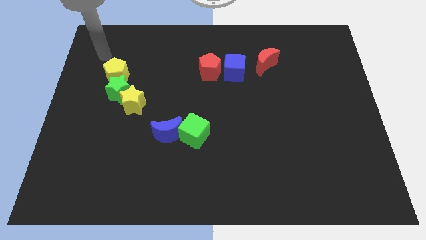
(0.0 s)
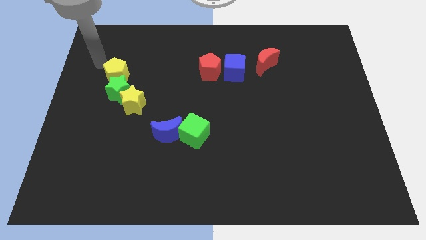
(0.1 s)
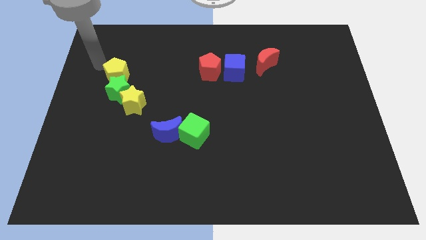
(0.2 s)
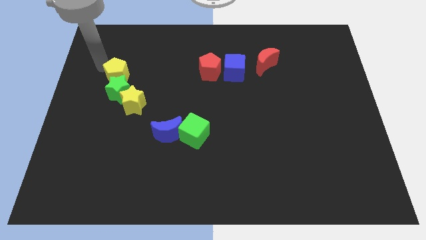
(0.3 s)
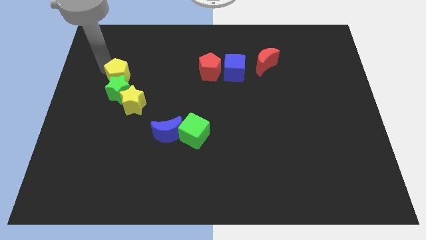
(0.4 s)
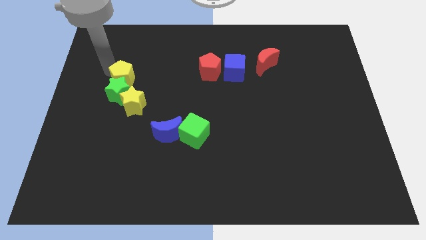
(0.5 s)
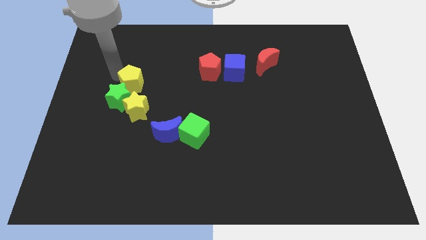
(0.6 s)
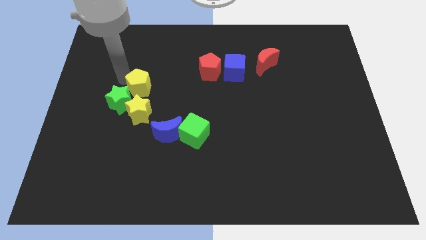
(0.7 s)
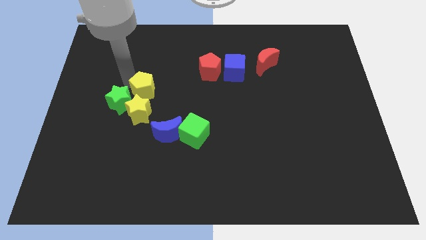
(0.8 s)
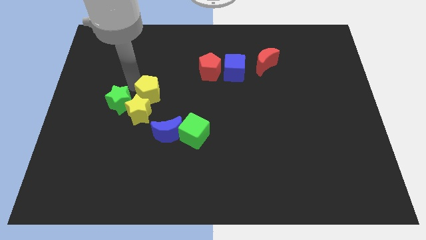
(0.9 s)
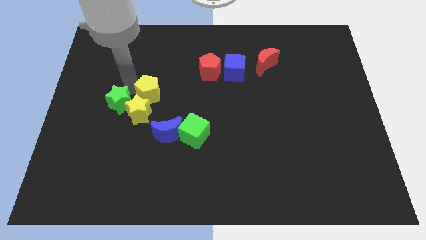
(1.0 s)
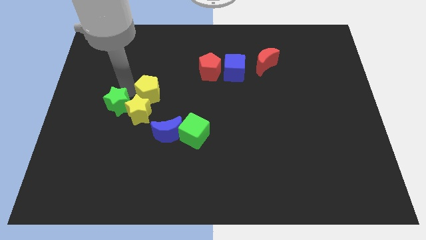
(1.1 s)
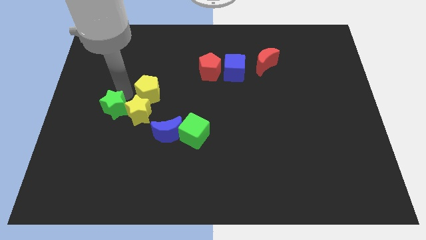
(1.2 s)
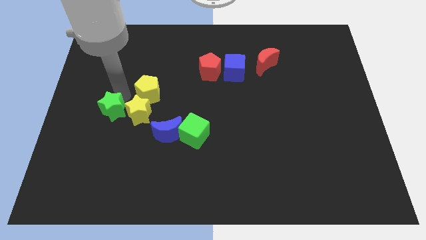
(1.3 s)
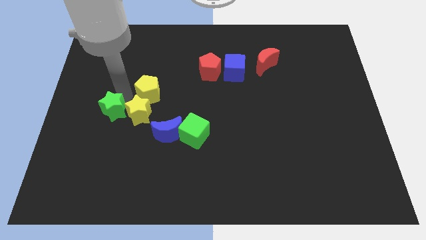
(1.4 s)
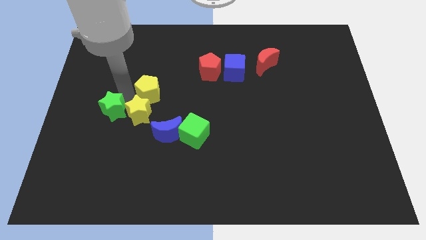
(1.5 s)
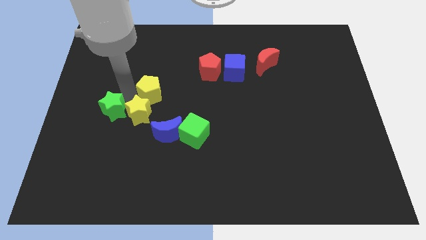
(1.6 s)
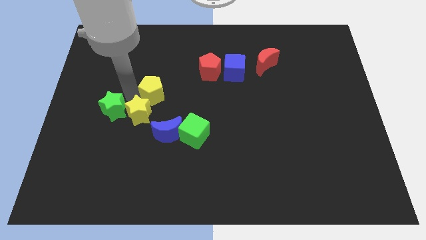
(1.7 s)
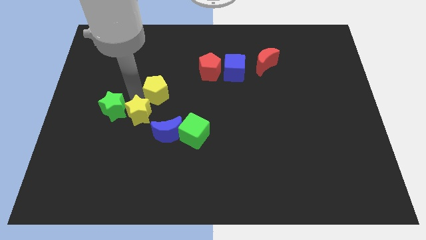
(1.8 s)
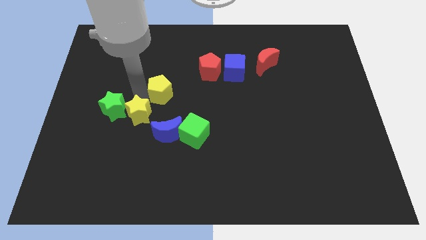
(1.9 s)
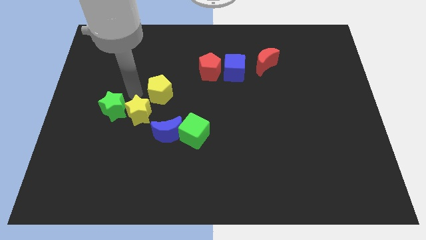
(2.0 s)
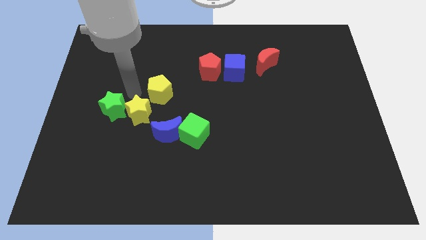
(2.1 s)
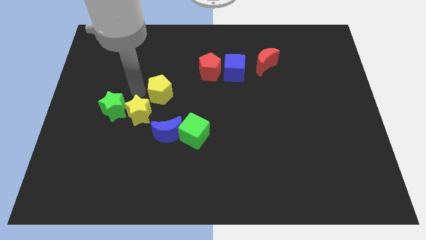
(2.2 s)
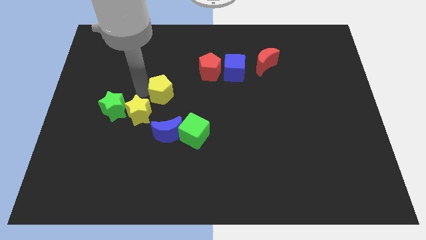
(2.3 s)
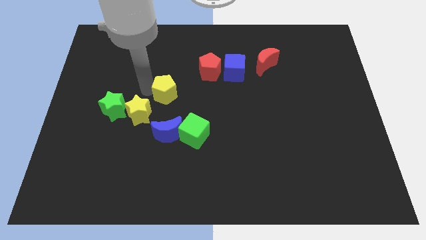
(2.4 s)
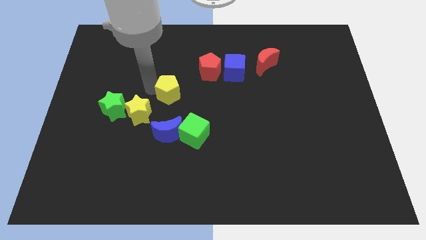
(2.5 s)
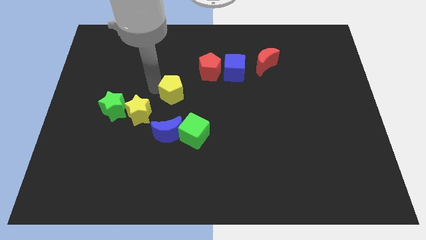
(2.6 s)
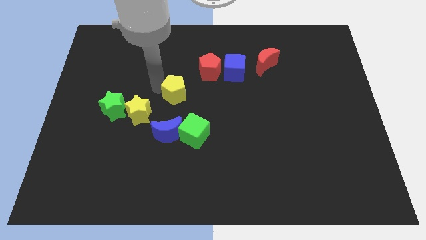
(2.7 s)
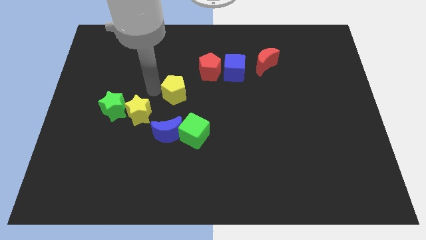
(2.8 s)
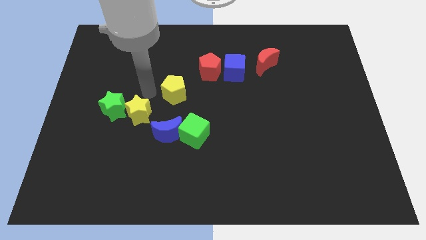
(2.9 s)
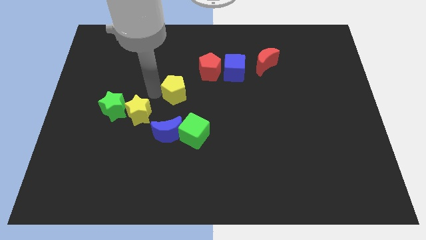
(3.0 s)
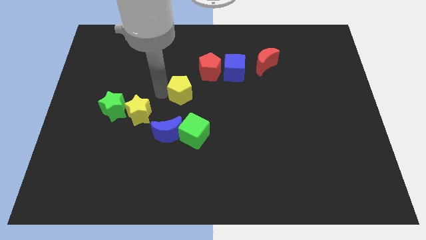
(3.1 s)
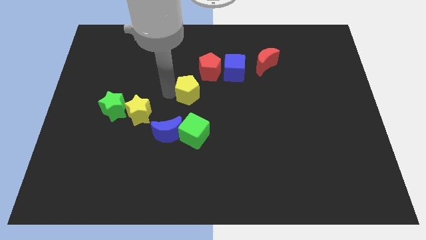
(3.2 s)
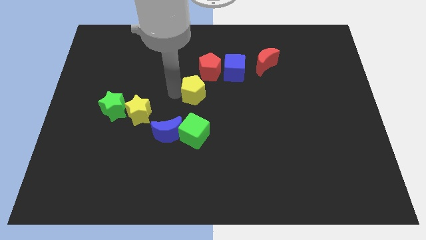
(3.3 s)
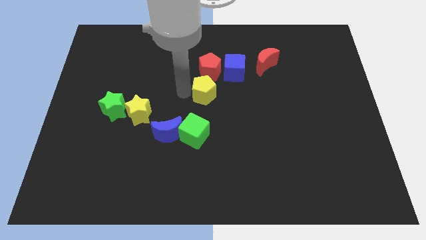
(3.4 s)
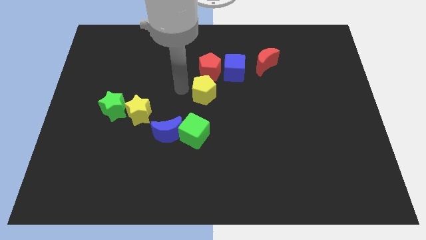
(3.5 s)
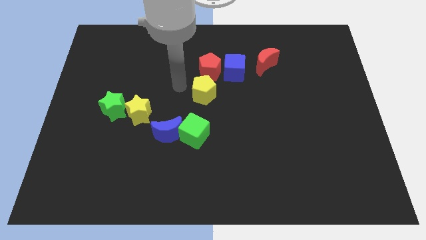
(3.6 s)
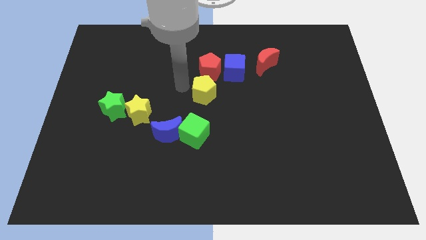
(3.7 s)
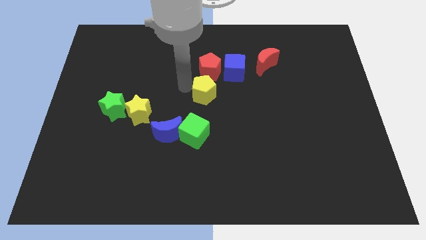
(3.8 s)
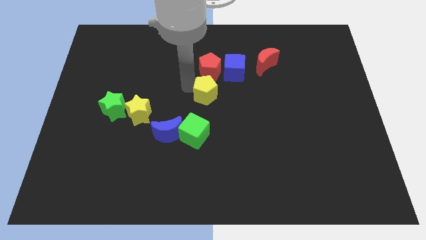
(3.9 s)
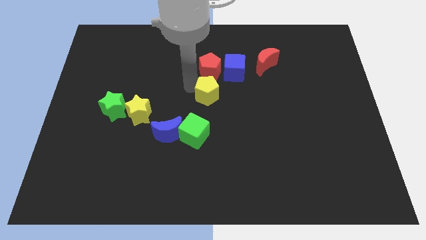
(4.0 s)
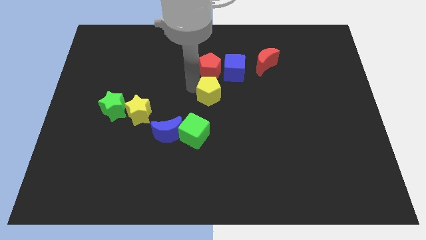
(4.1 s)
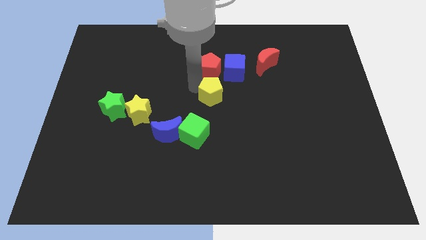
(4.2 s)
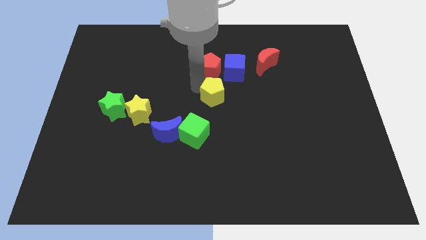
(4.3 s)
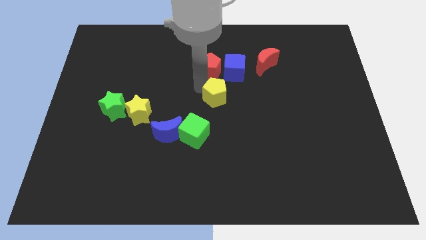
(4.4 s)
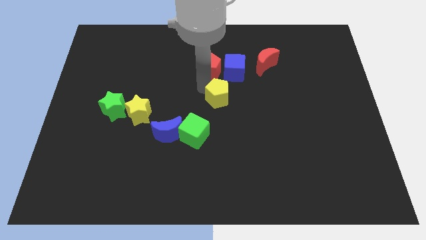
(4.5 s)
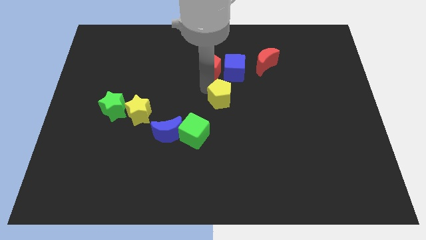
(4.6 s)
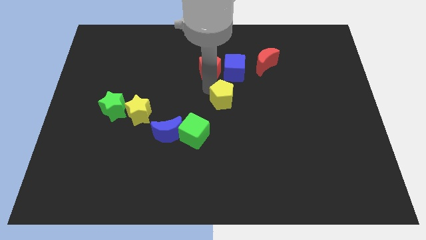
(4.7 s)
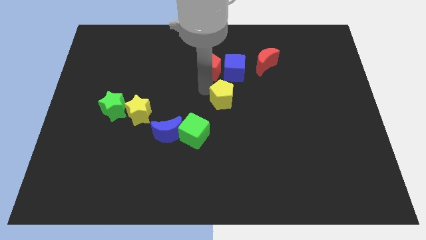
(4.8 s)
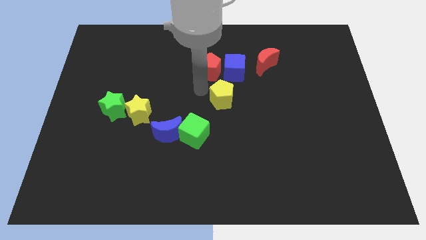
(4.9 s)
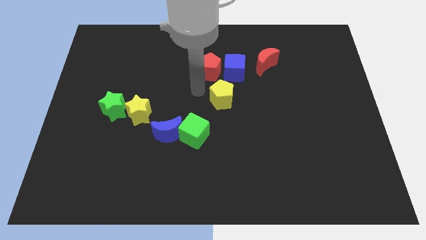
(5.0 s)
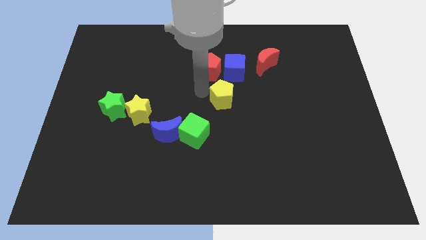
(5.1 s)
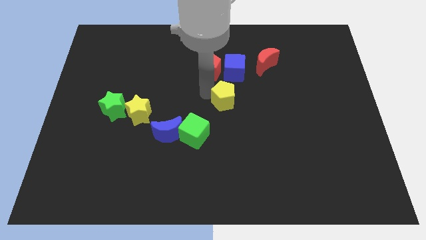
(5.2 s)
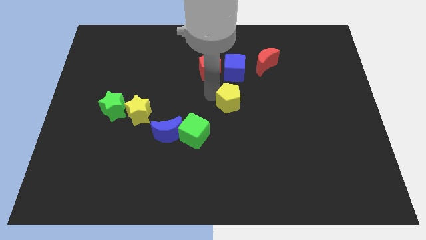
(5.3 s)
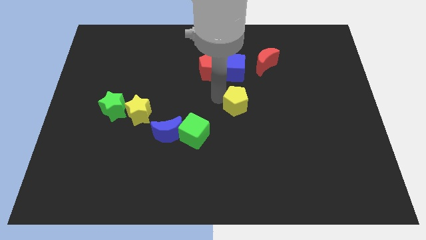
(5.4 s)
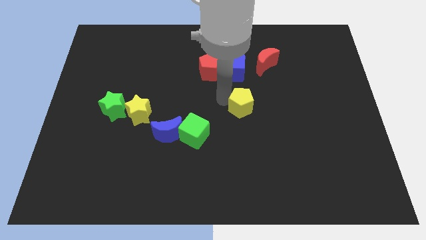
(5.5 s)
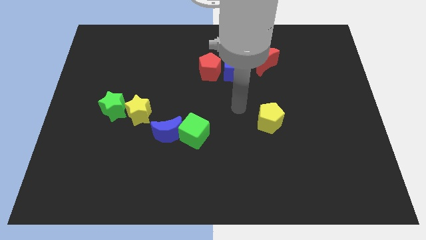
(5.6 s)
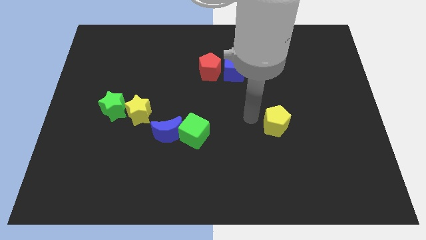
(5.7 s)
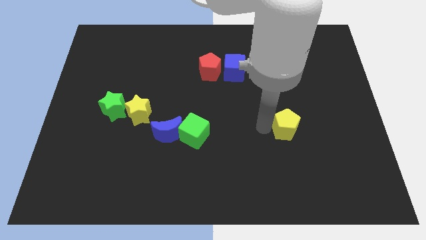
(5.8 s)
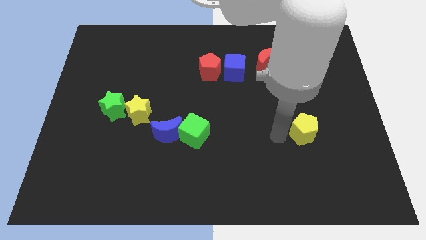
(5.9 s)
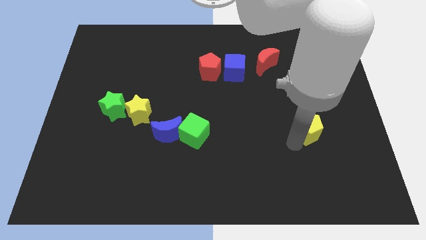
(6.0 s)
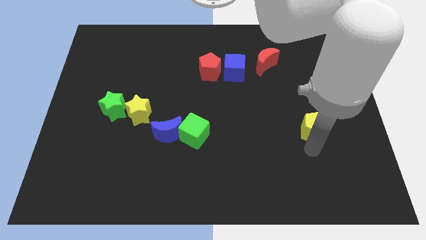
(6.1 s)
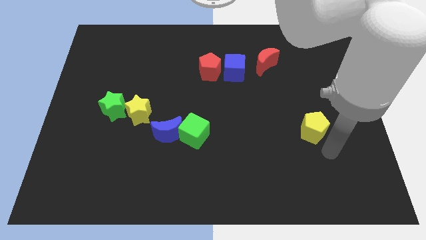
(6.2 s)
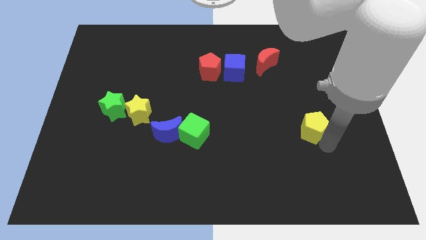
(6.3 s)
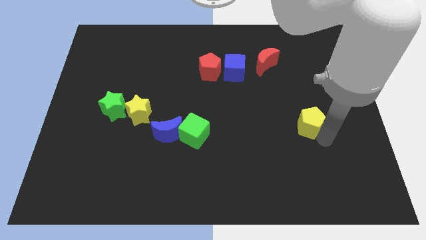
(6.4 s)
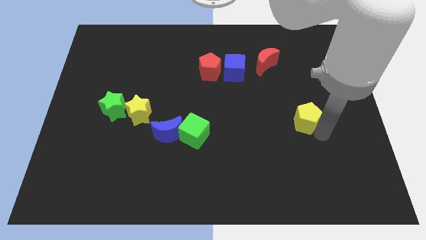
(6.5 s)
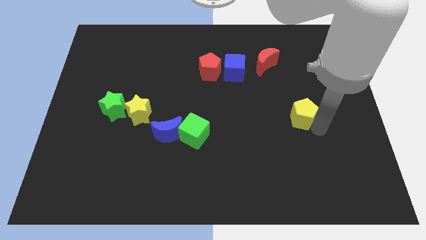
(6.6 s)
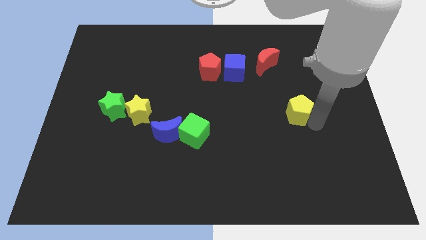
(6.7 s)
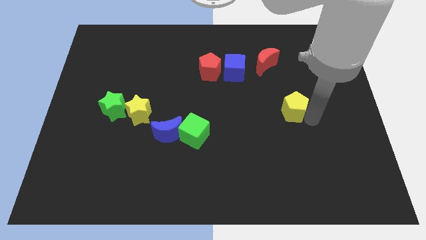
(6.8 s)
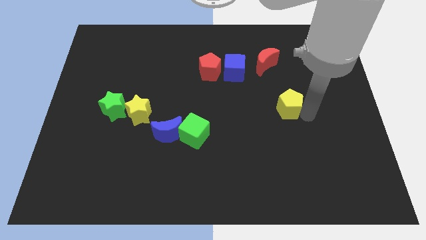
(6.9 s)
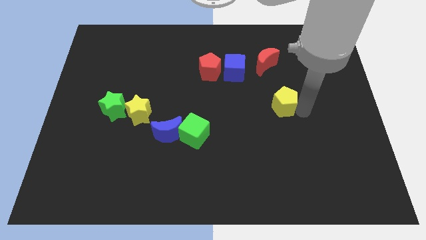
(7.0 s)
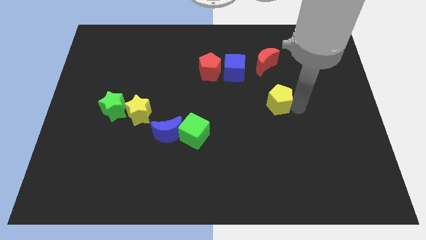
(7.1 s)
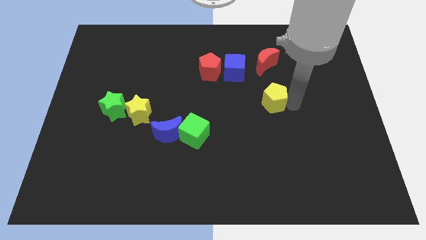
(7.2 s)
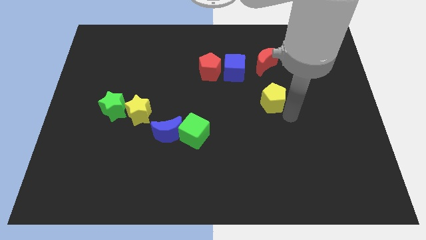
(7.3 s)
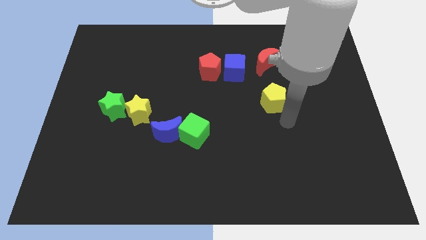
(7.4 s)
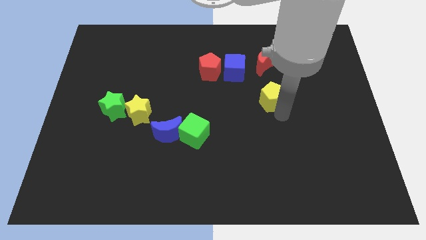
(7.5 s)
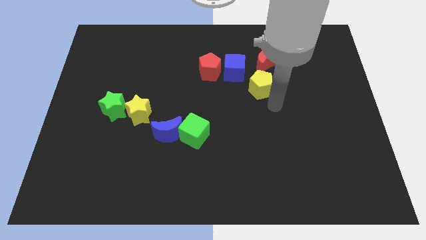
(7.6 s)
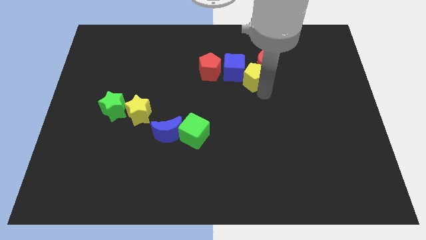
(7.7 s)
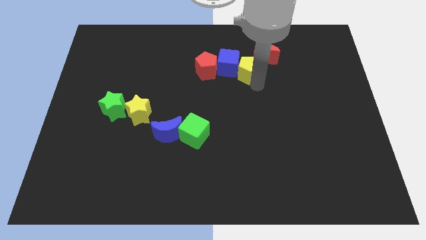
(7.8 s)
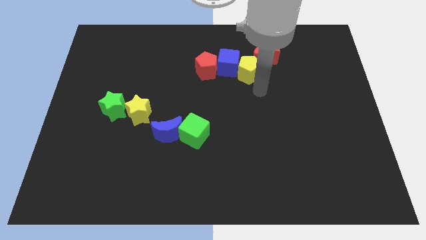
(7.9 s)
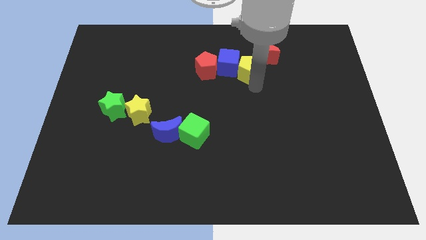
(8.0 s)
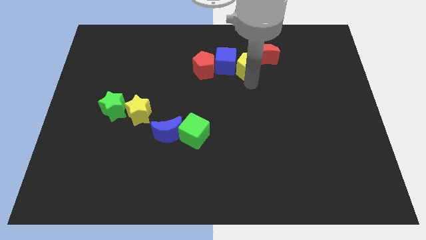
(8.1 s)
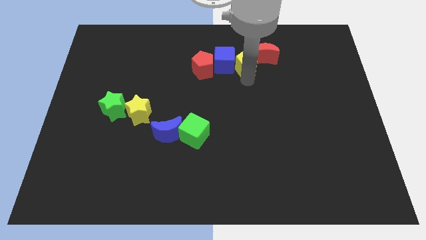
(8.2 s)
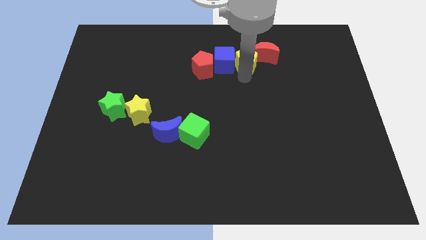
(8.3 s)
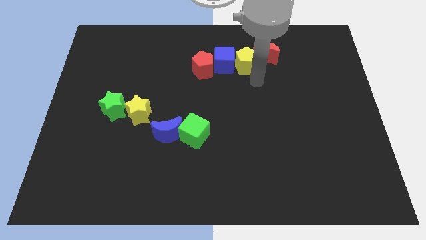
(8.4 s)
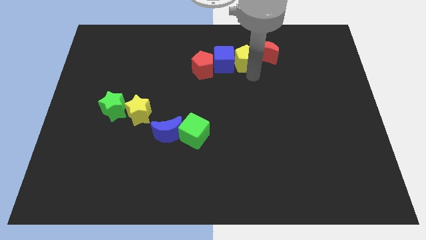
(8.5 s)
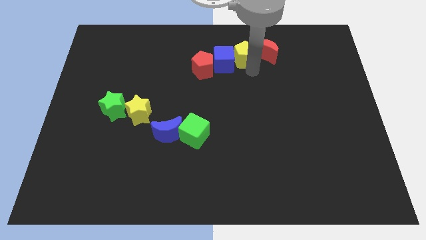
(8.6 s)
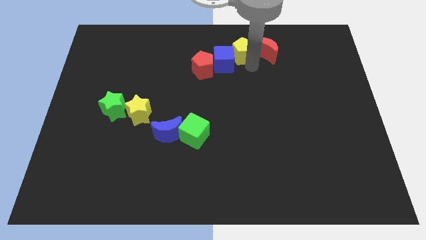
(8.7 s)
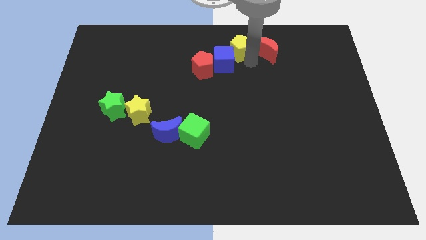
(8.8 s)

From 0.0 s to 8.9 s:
move the yellow pentagon to the top side
